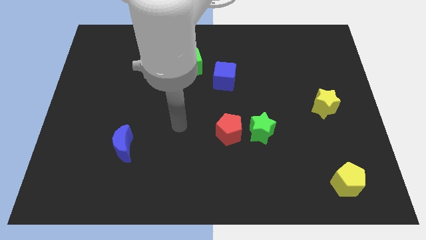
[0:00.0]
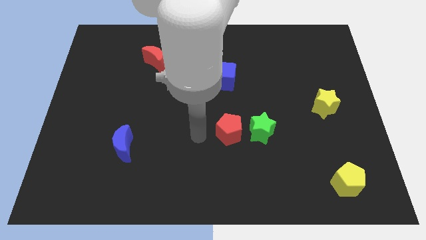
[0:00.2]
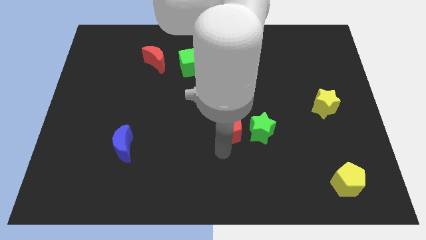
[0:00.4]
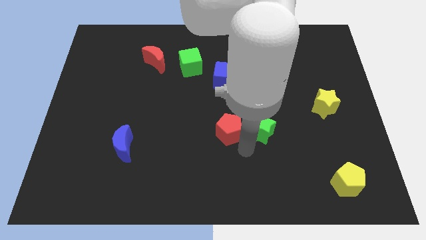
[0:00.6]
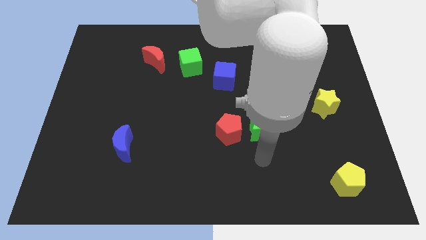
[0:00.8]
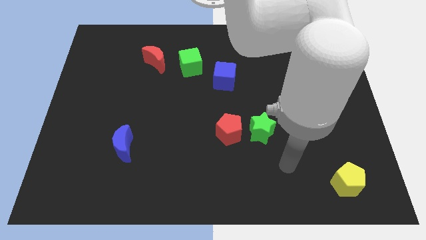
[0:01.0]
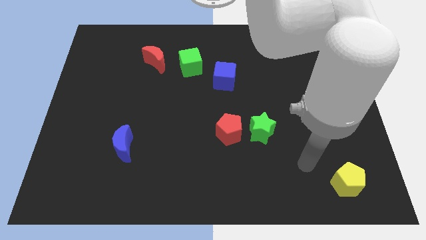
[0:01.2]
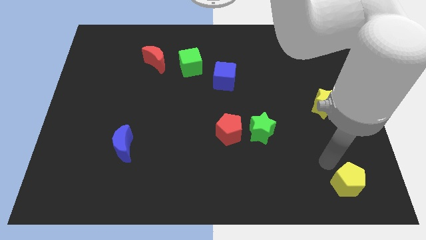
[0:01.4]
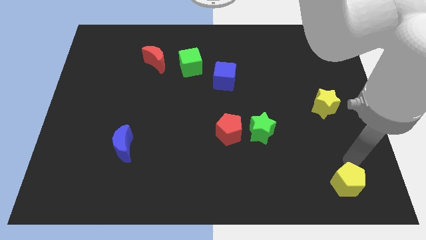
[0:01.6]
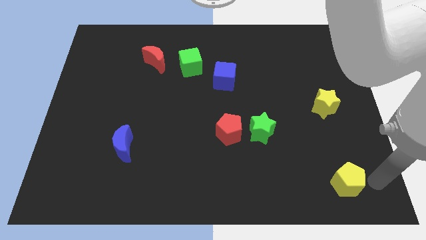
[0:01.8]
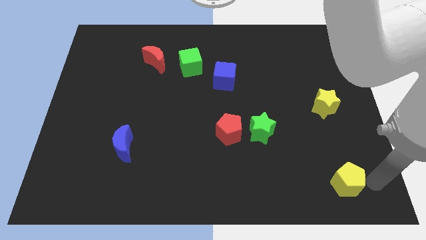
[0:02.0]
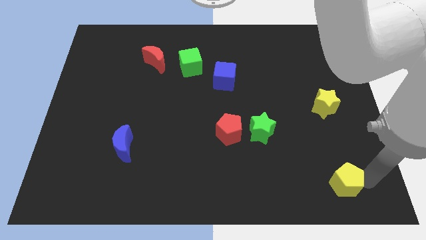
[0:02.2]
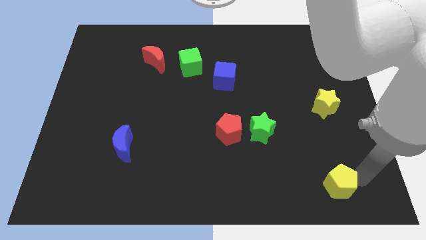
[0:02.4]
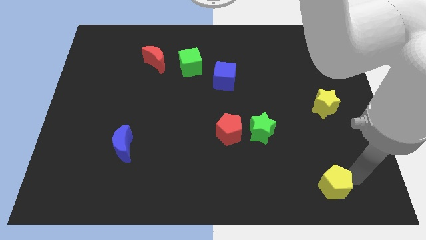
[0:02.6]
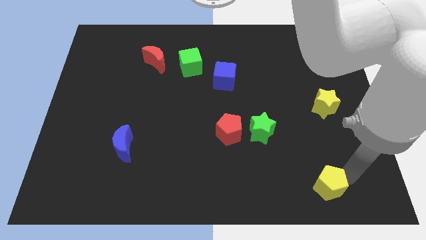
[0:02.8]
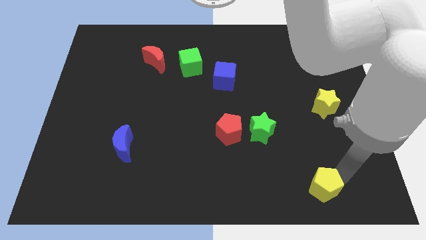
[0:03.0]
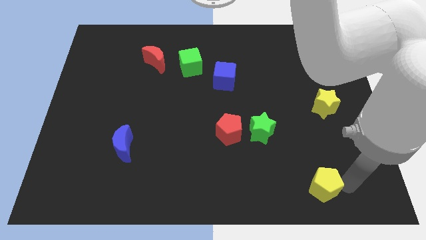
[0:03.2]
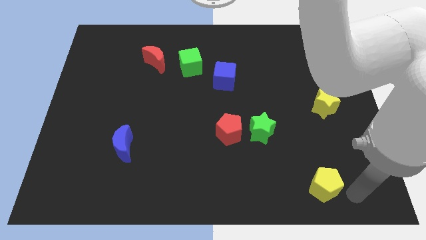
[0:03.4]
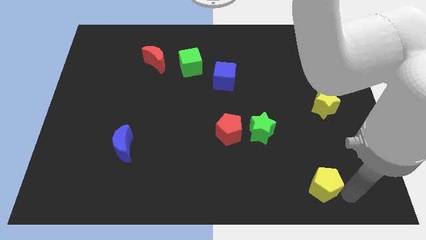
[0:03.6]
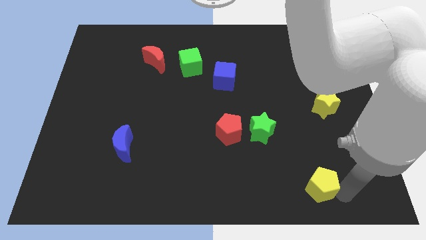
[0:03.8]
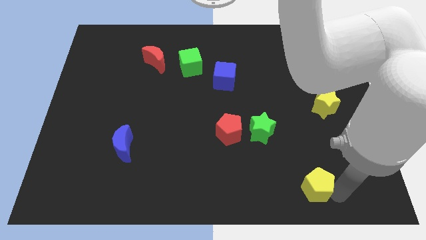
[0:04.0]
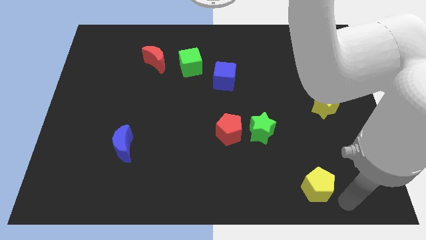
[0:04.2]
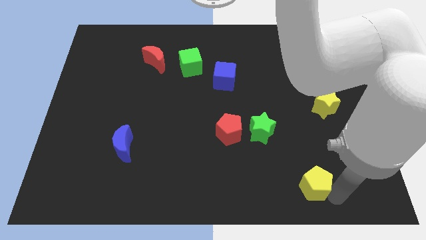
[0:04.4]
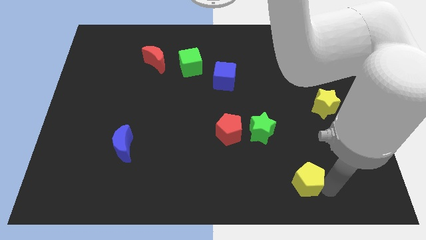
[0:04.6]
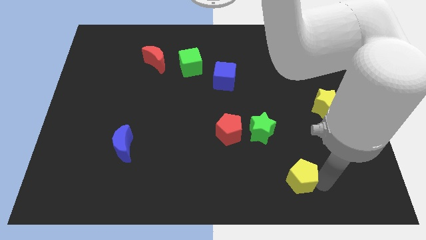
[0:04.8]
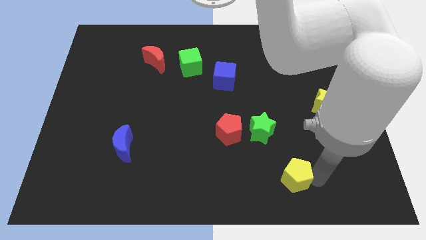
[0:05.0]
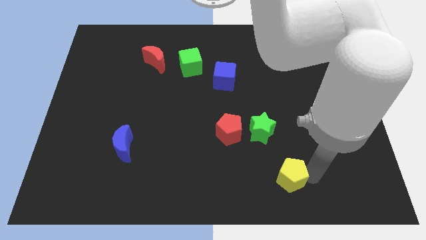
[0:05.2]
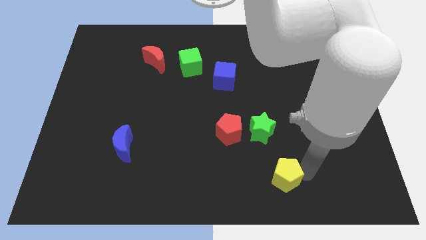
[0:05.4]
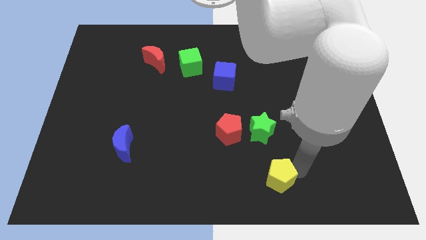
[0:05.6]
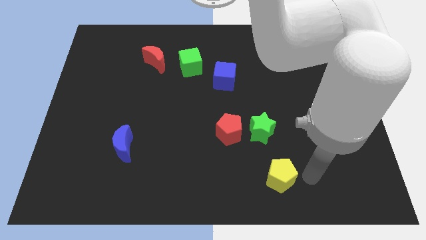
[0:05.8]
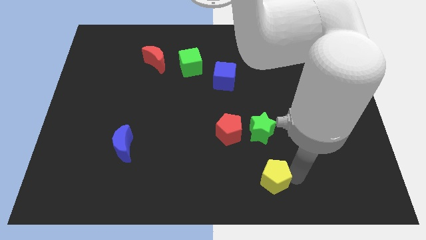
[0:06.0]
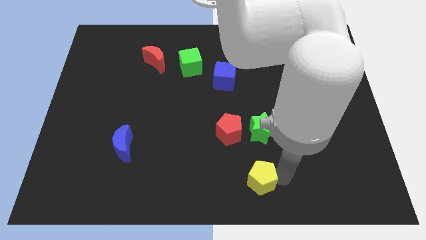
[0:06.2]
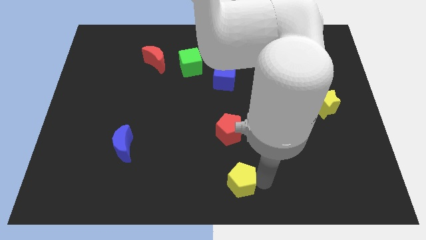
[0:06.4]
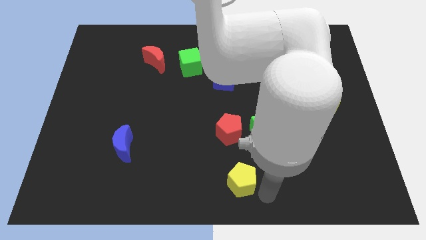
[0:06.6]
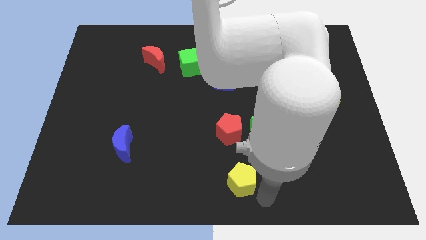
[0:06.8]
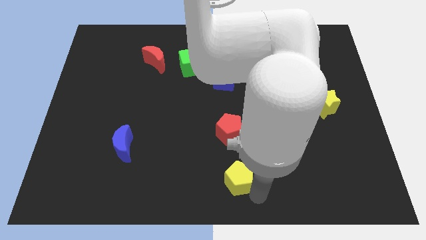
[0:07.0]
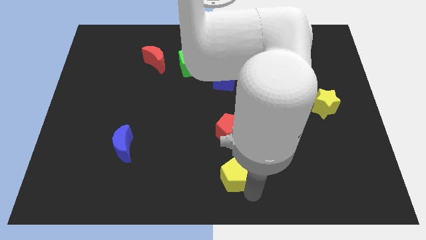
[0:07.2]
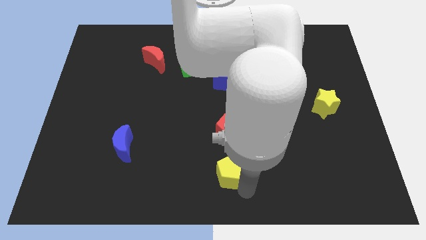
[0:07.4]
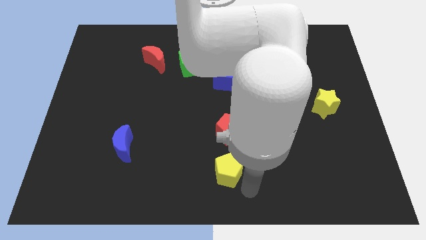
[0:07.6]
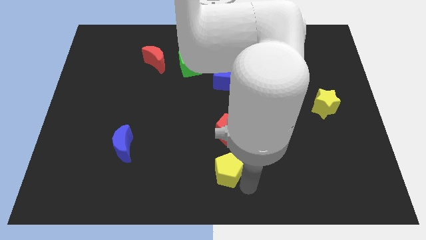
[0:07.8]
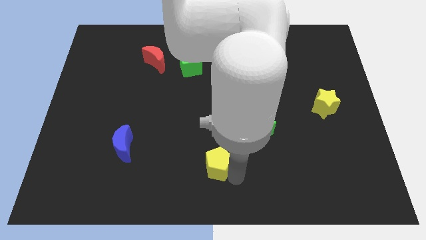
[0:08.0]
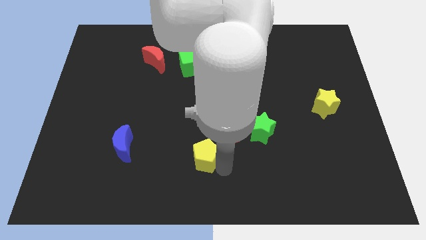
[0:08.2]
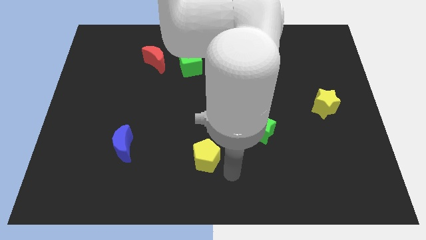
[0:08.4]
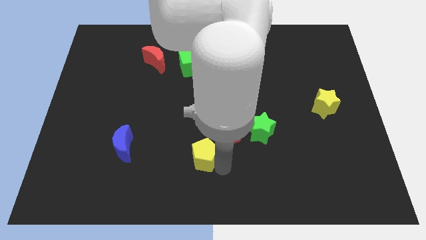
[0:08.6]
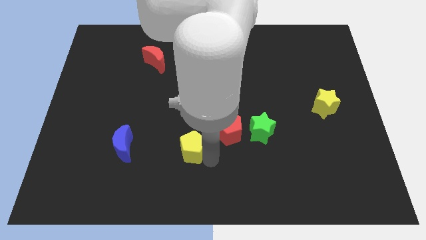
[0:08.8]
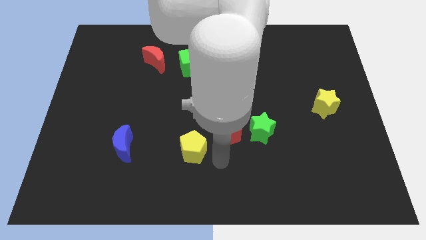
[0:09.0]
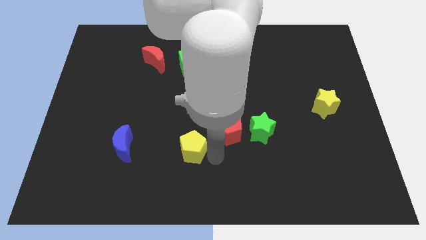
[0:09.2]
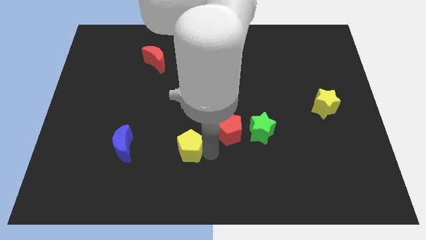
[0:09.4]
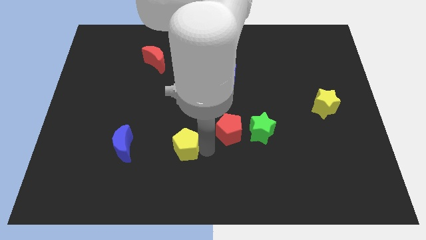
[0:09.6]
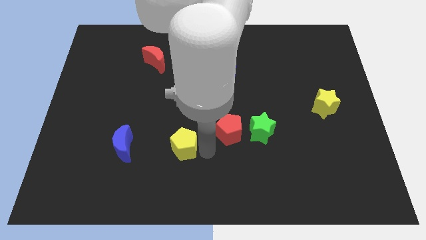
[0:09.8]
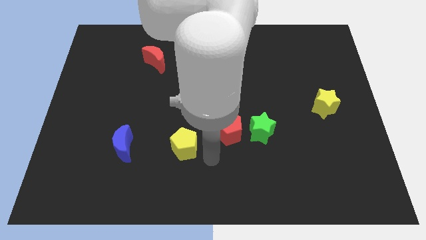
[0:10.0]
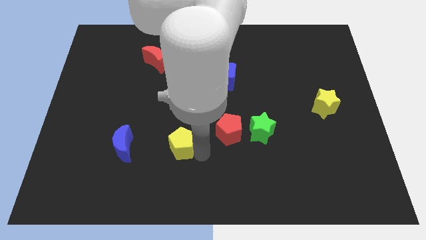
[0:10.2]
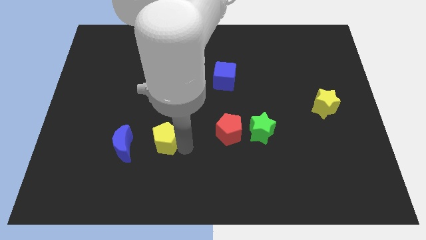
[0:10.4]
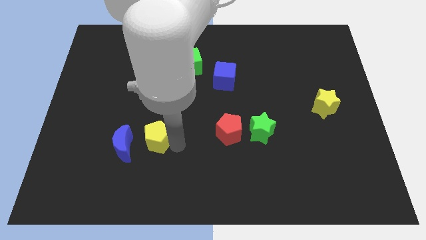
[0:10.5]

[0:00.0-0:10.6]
put the yellow pentagon to the top right of the blue moon

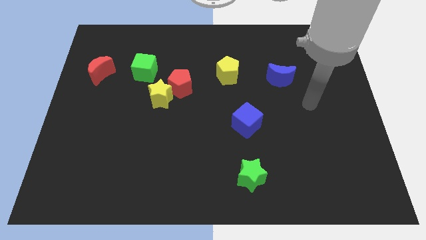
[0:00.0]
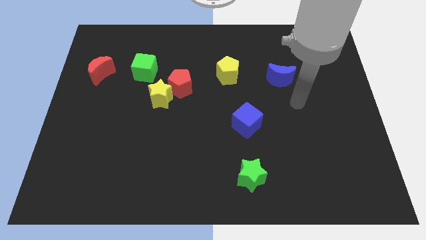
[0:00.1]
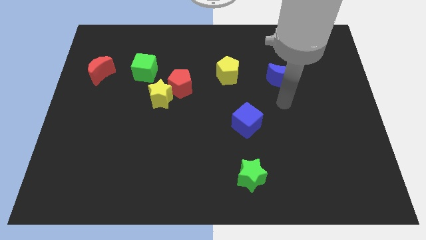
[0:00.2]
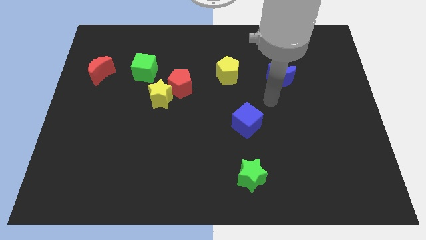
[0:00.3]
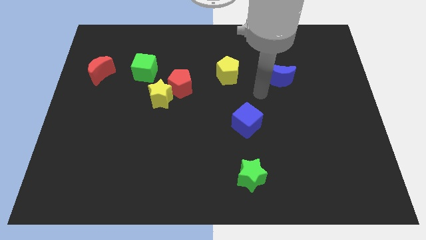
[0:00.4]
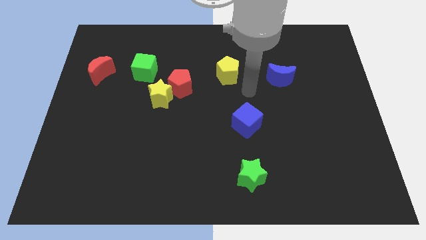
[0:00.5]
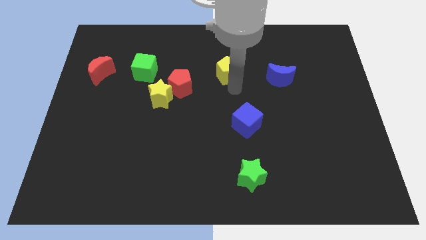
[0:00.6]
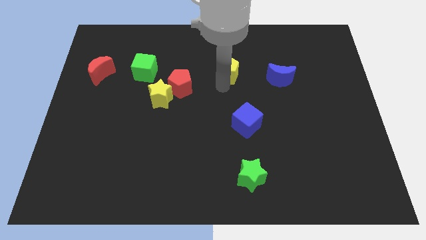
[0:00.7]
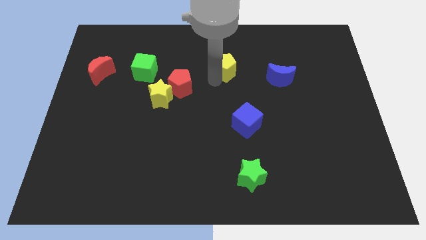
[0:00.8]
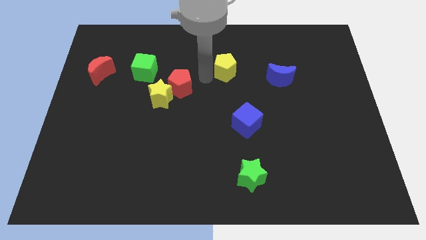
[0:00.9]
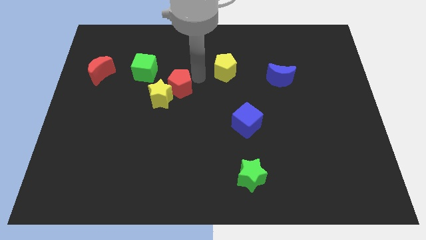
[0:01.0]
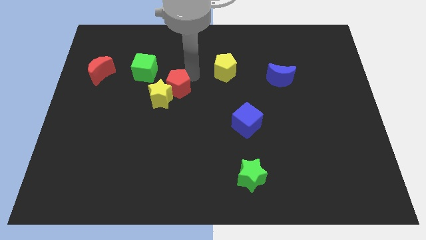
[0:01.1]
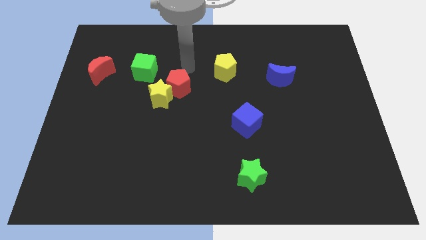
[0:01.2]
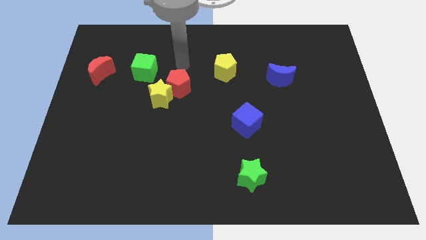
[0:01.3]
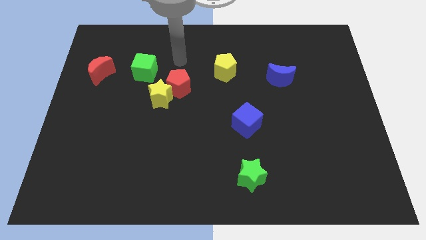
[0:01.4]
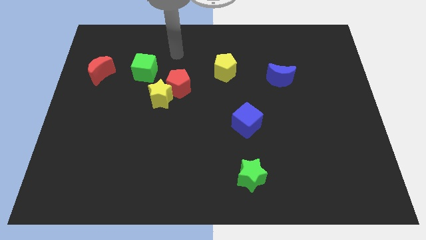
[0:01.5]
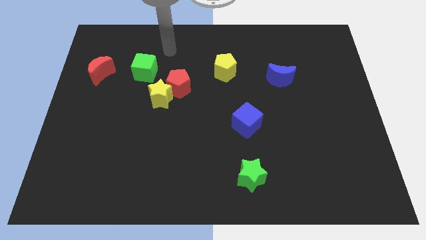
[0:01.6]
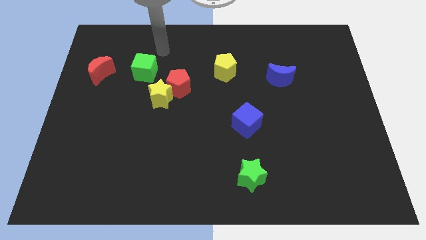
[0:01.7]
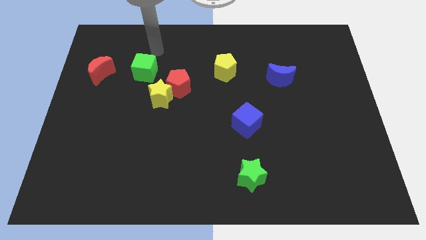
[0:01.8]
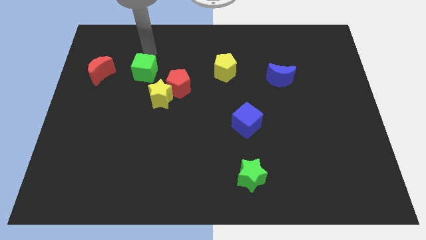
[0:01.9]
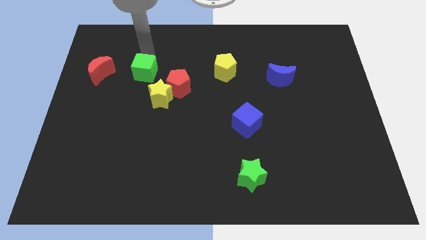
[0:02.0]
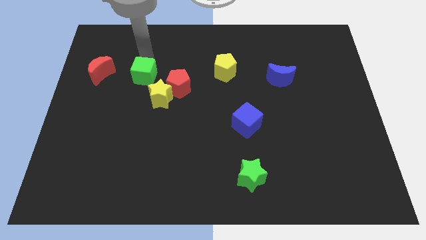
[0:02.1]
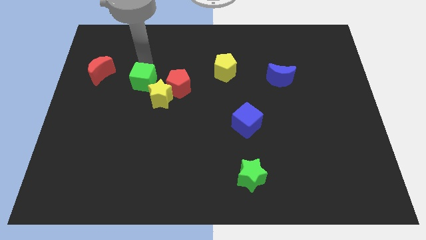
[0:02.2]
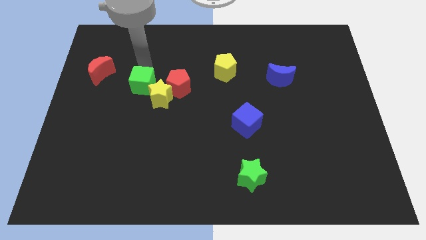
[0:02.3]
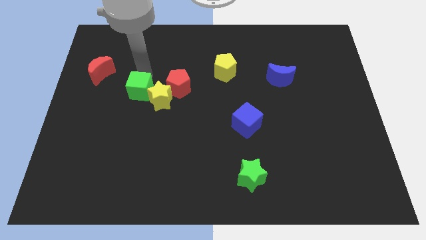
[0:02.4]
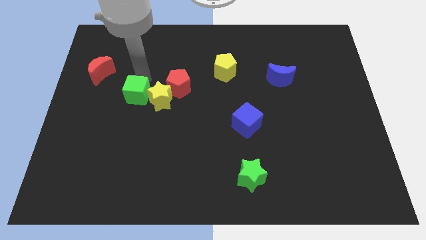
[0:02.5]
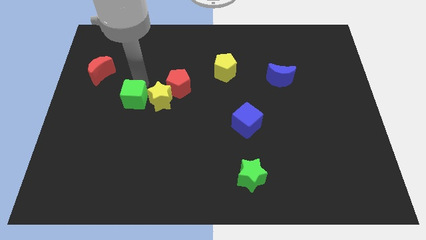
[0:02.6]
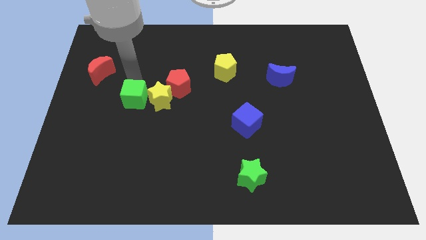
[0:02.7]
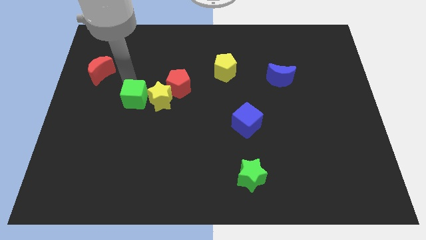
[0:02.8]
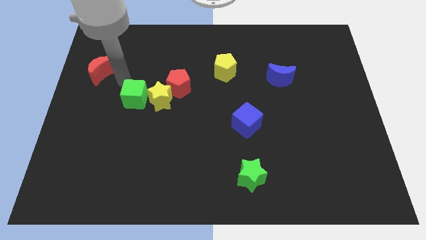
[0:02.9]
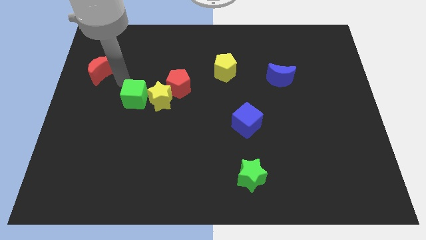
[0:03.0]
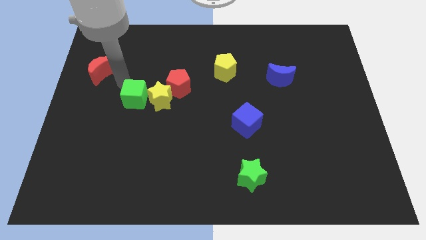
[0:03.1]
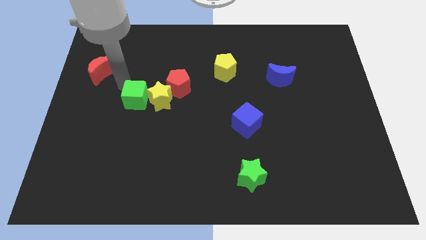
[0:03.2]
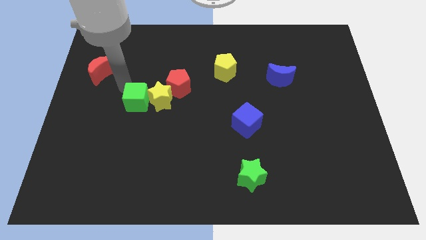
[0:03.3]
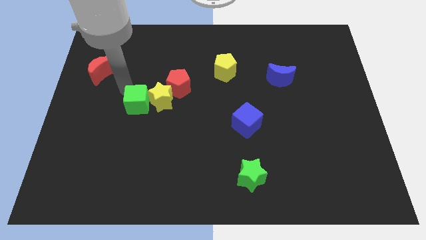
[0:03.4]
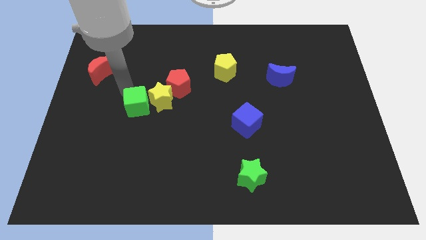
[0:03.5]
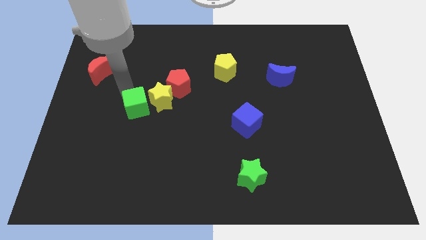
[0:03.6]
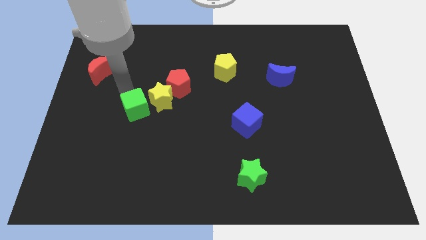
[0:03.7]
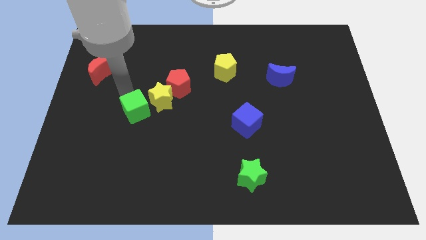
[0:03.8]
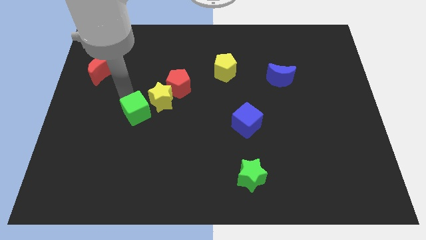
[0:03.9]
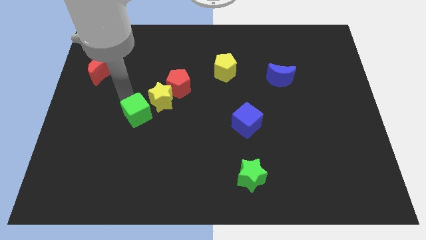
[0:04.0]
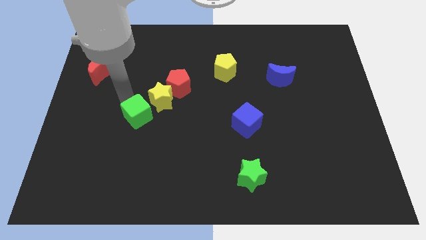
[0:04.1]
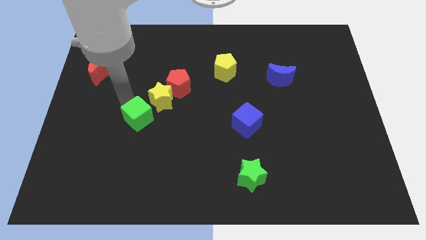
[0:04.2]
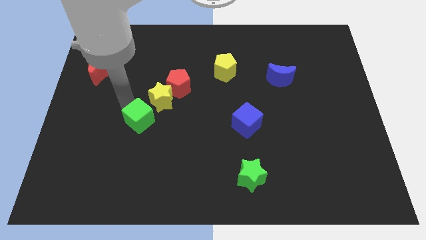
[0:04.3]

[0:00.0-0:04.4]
put the green cube below the yellow star
